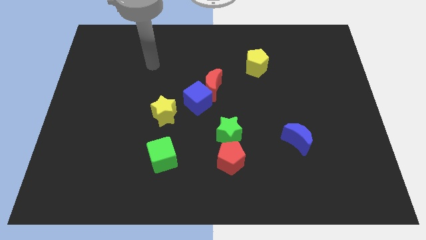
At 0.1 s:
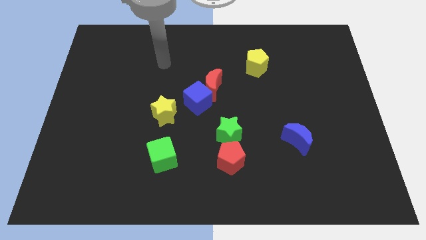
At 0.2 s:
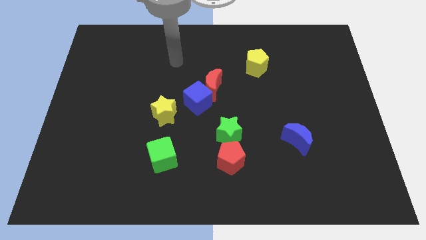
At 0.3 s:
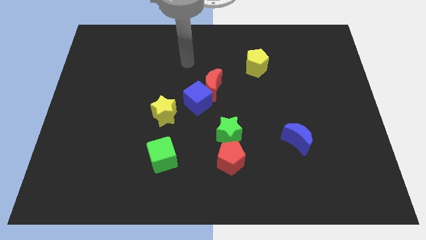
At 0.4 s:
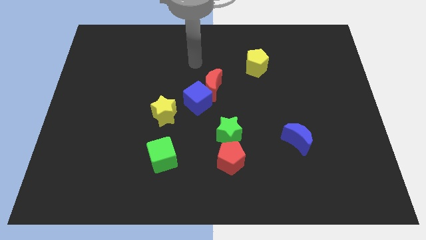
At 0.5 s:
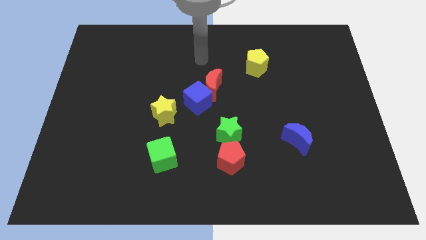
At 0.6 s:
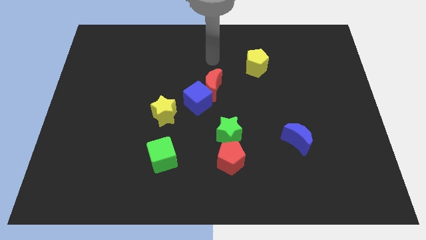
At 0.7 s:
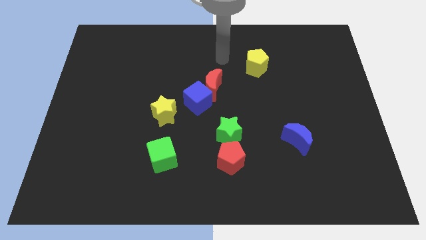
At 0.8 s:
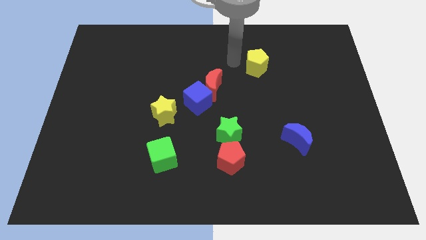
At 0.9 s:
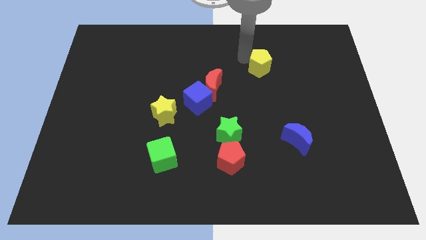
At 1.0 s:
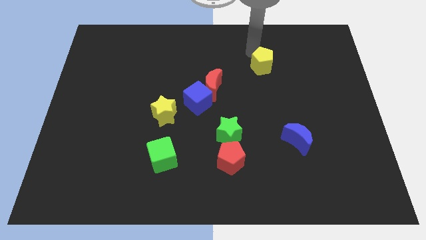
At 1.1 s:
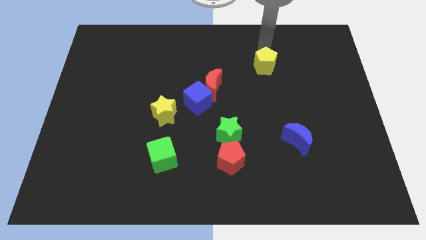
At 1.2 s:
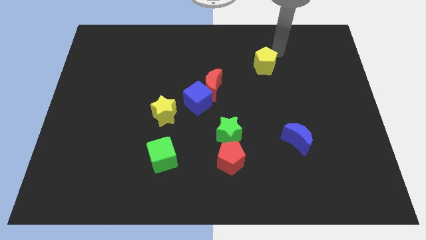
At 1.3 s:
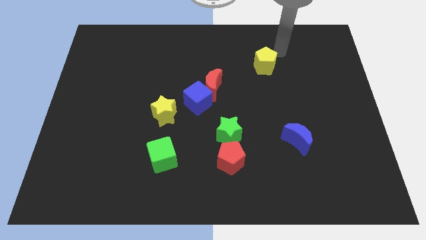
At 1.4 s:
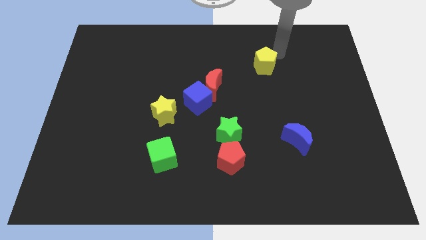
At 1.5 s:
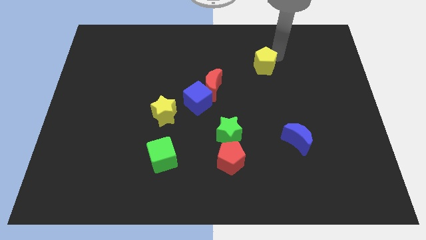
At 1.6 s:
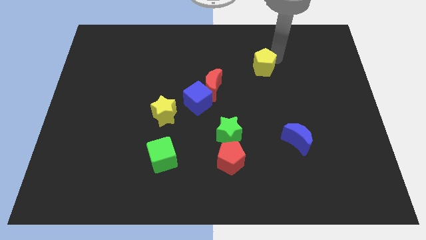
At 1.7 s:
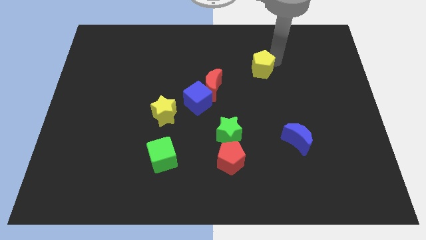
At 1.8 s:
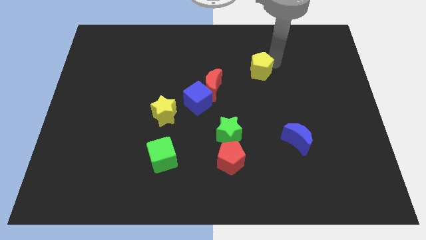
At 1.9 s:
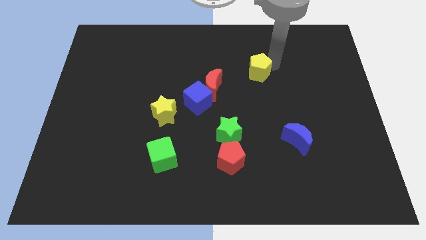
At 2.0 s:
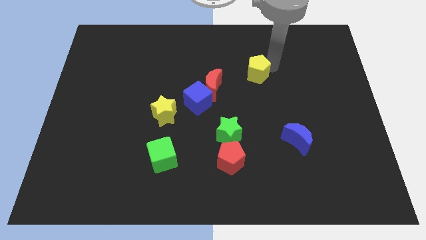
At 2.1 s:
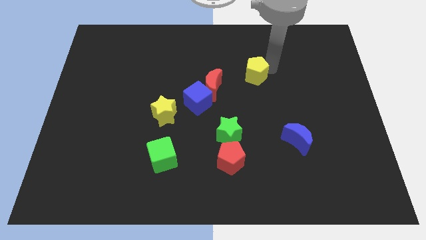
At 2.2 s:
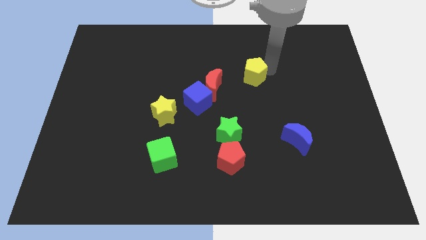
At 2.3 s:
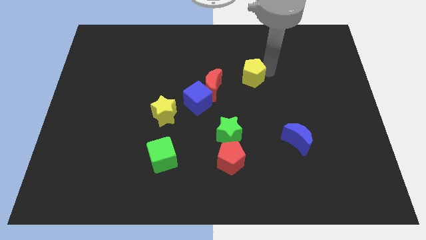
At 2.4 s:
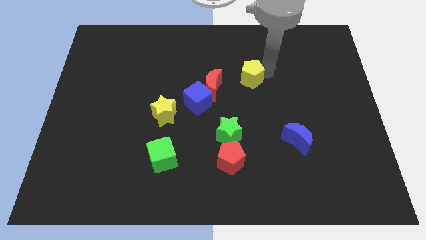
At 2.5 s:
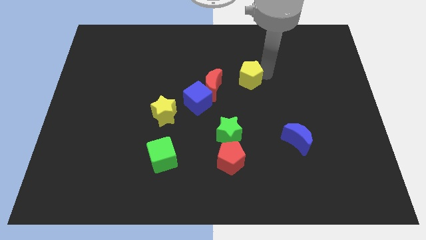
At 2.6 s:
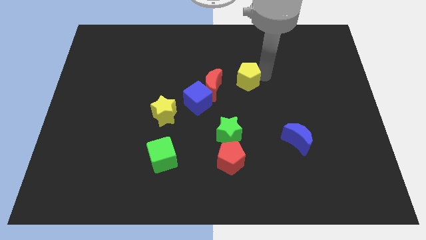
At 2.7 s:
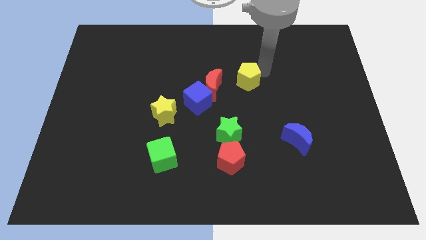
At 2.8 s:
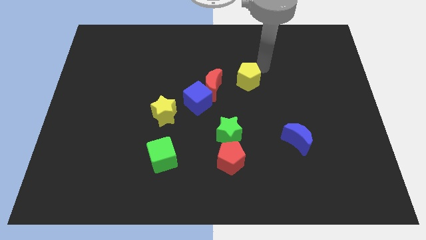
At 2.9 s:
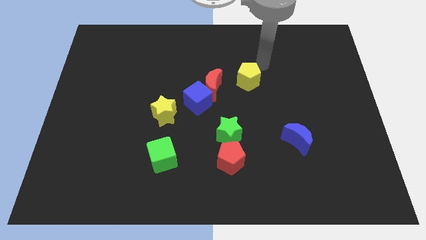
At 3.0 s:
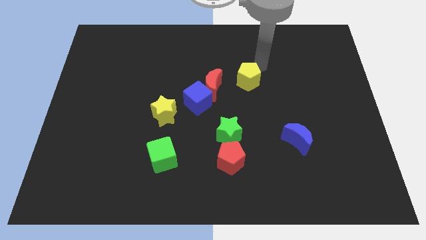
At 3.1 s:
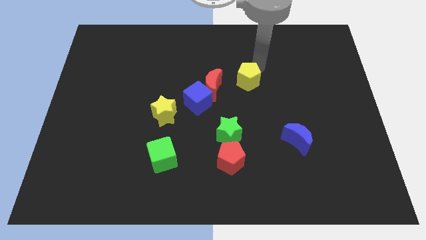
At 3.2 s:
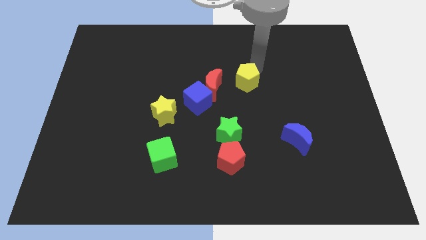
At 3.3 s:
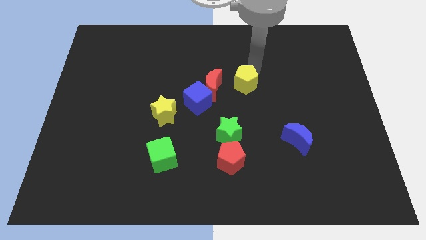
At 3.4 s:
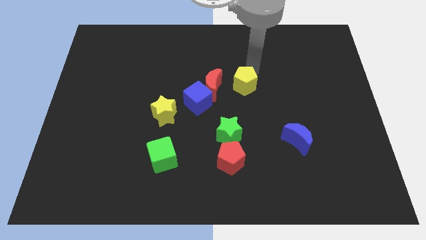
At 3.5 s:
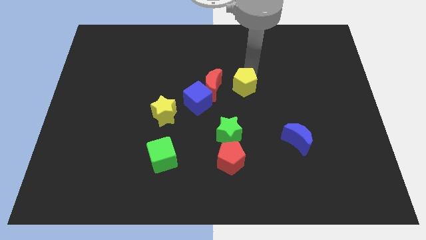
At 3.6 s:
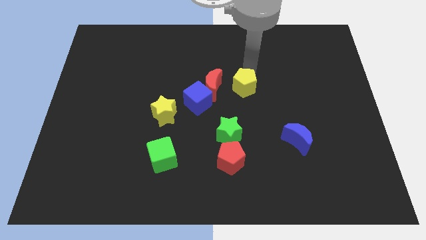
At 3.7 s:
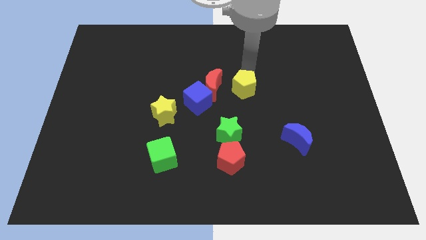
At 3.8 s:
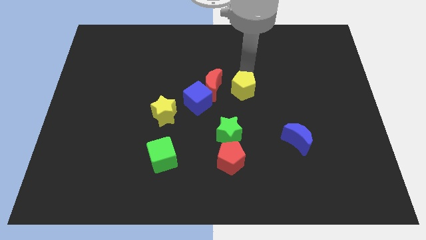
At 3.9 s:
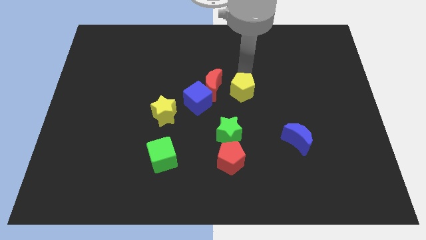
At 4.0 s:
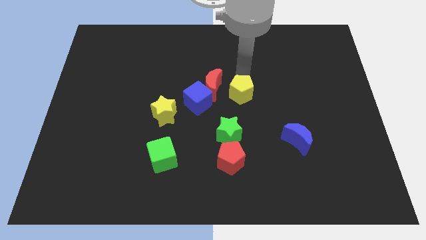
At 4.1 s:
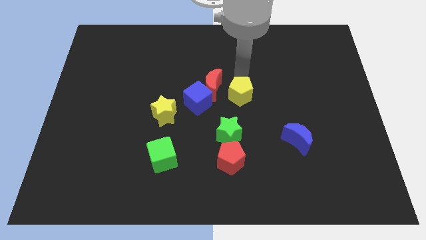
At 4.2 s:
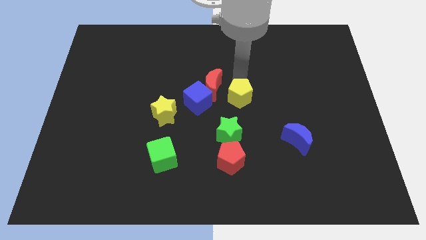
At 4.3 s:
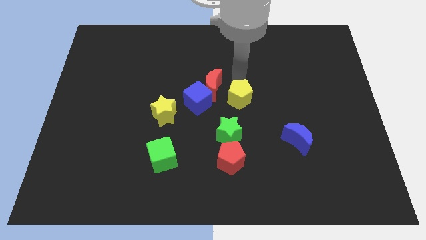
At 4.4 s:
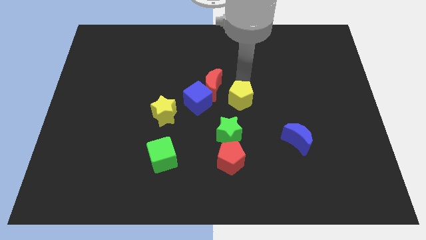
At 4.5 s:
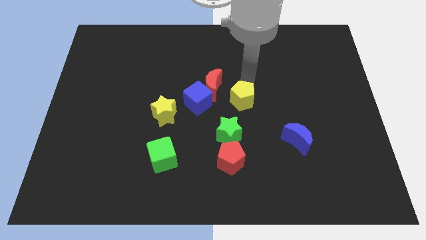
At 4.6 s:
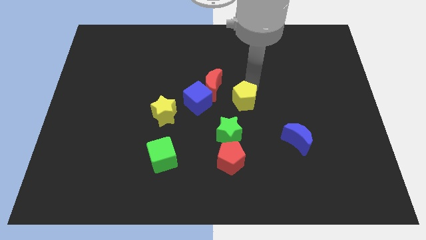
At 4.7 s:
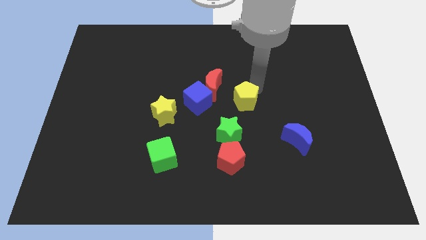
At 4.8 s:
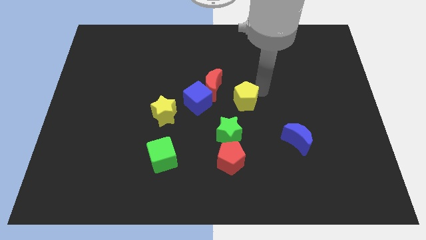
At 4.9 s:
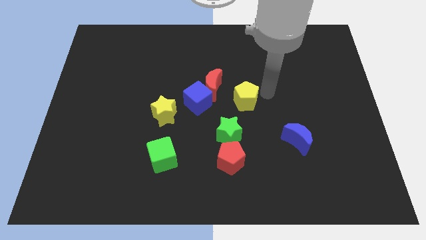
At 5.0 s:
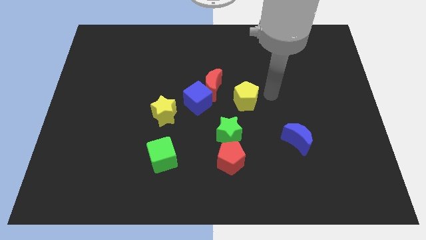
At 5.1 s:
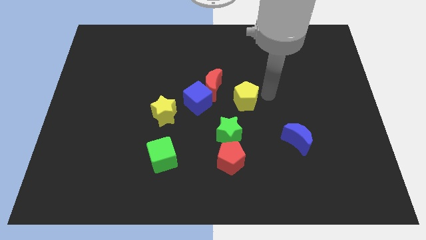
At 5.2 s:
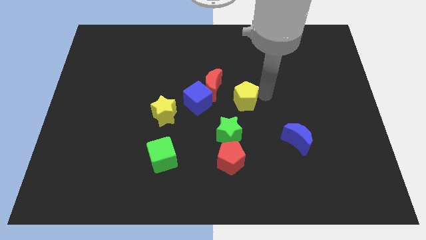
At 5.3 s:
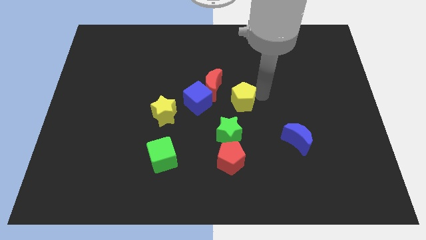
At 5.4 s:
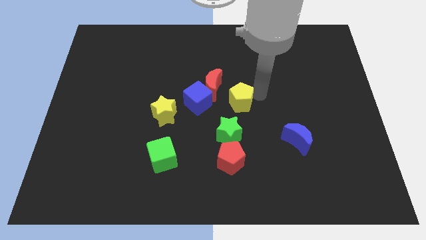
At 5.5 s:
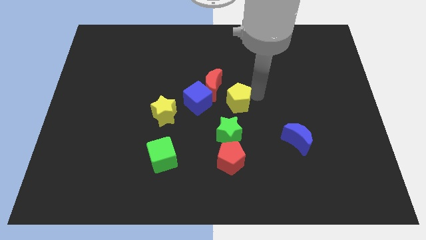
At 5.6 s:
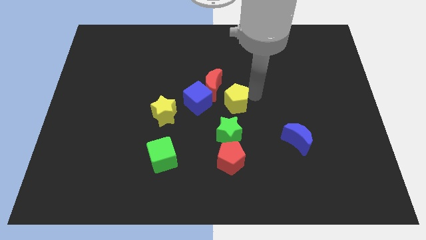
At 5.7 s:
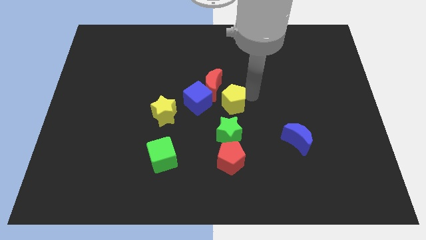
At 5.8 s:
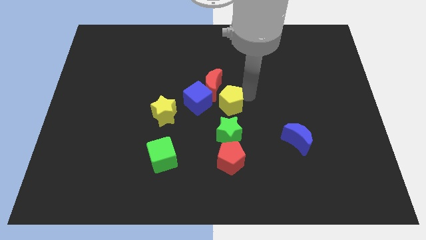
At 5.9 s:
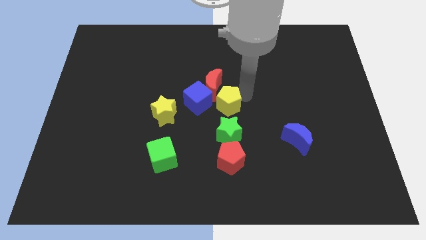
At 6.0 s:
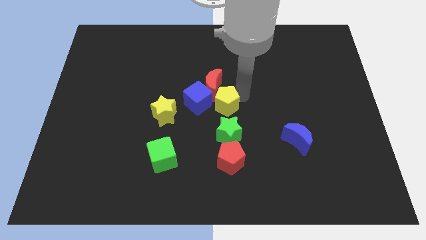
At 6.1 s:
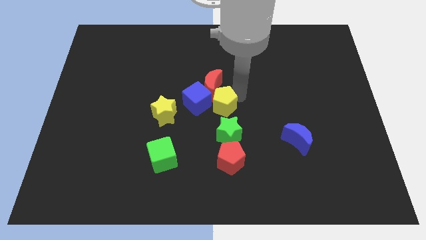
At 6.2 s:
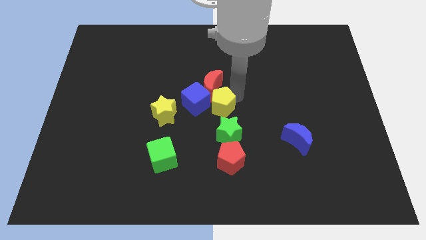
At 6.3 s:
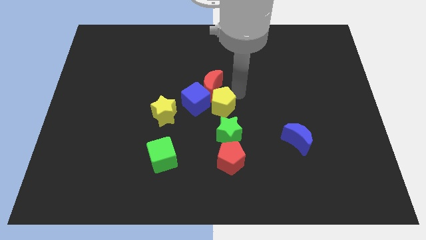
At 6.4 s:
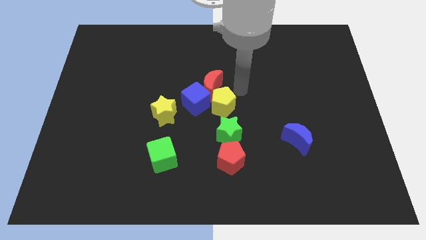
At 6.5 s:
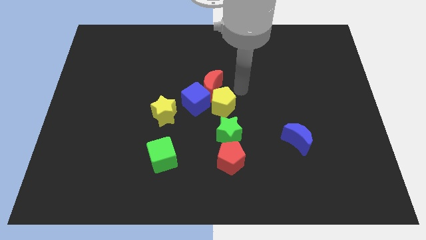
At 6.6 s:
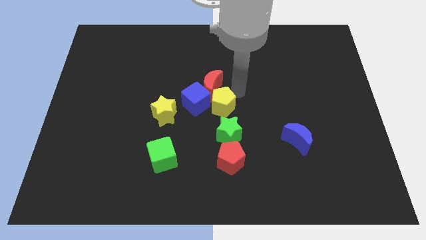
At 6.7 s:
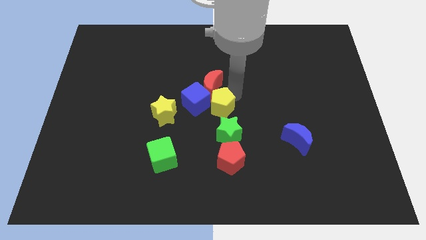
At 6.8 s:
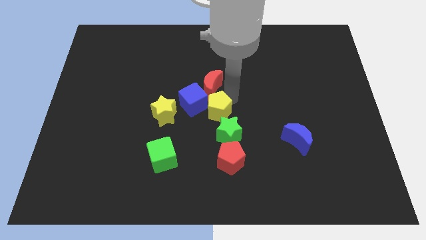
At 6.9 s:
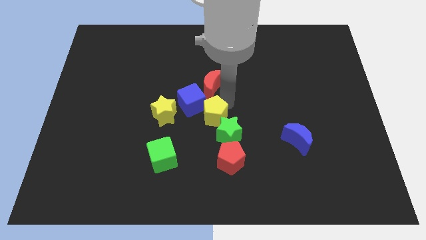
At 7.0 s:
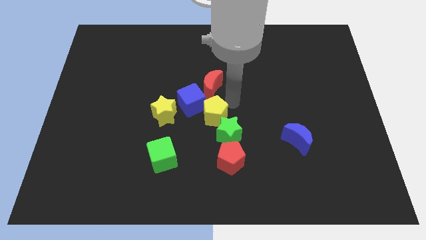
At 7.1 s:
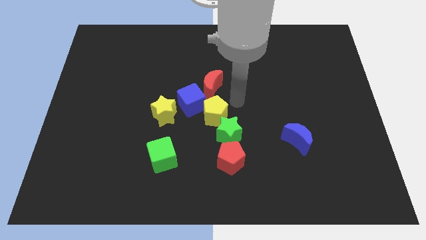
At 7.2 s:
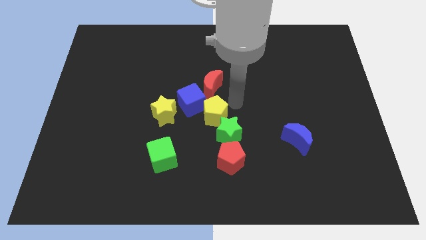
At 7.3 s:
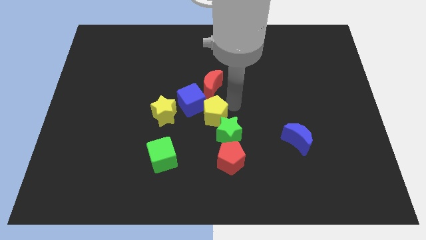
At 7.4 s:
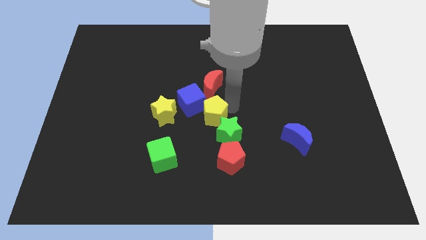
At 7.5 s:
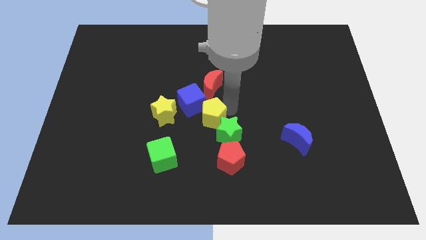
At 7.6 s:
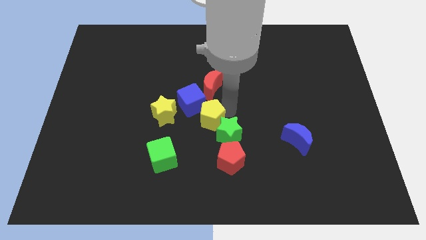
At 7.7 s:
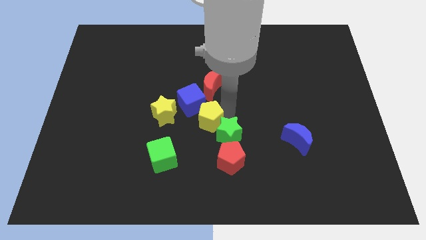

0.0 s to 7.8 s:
move the yellow pentagon diagonally downwards and left

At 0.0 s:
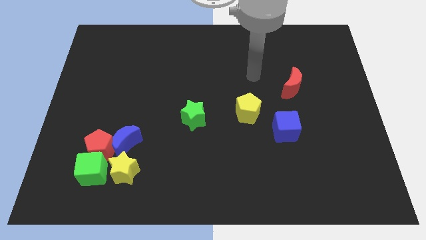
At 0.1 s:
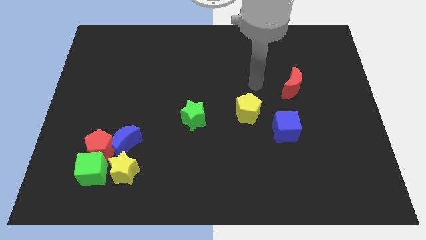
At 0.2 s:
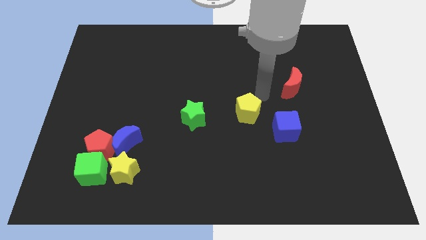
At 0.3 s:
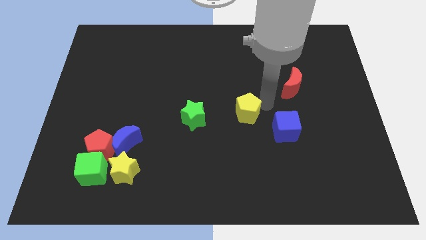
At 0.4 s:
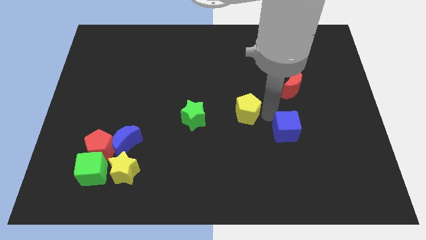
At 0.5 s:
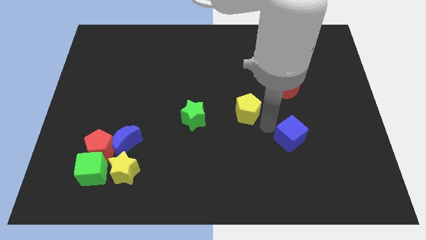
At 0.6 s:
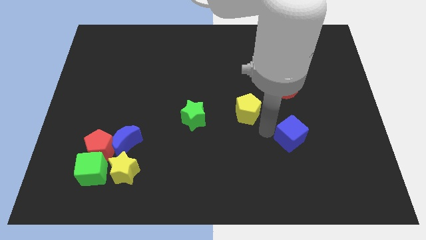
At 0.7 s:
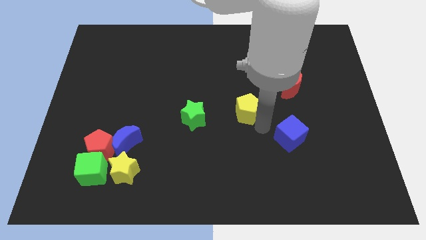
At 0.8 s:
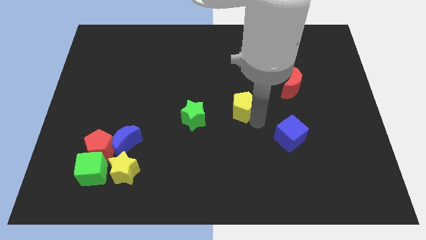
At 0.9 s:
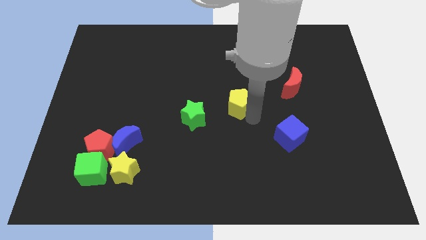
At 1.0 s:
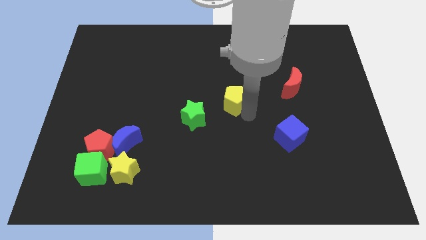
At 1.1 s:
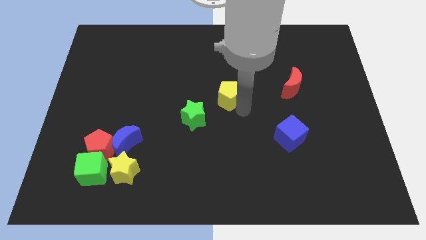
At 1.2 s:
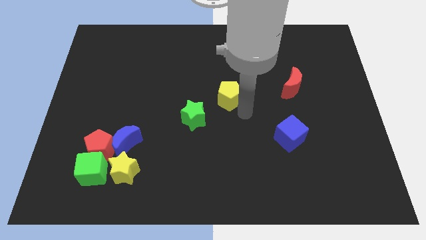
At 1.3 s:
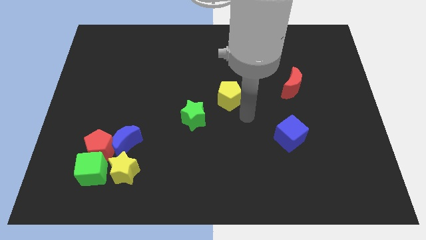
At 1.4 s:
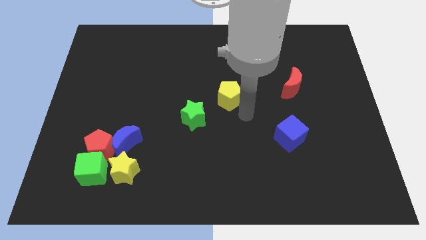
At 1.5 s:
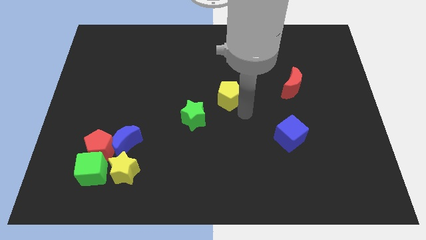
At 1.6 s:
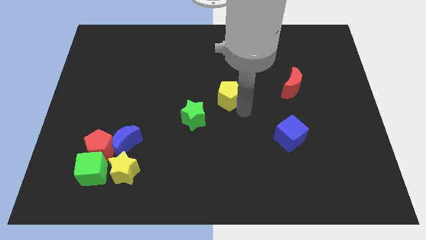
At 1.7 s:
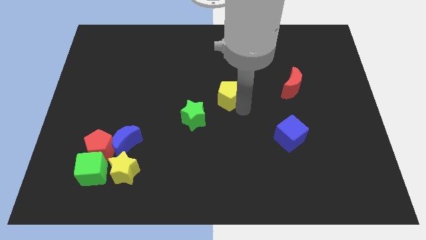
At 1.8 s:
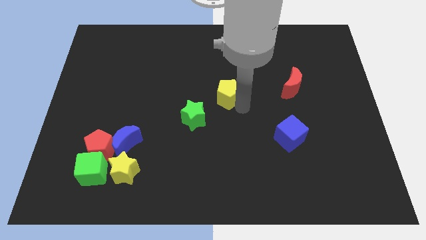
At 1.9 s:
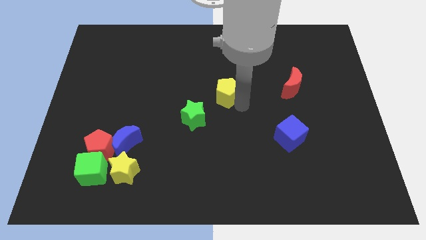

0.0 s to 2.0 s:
push the yellow pentagon up and to the left a bit
